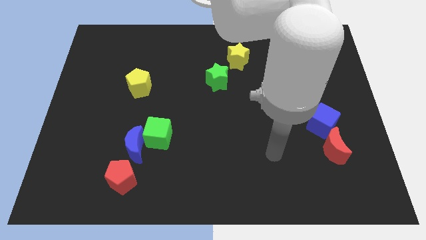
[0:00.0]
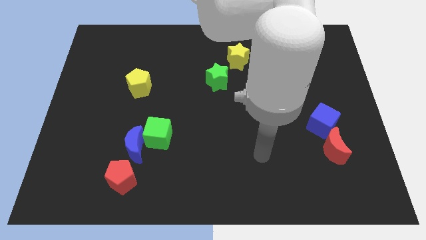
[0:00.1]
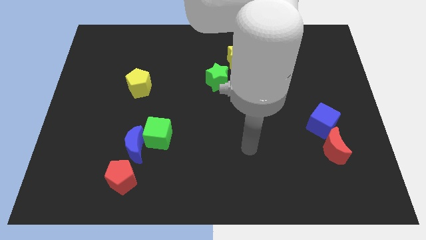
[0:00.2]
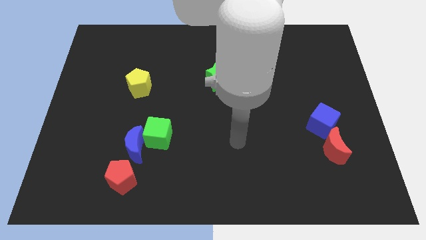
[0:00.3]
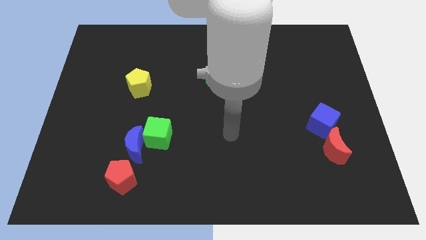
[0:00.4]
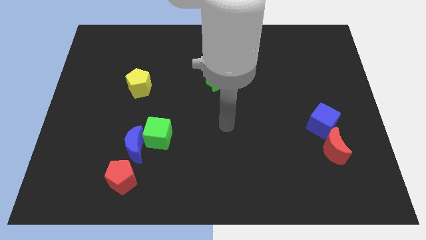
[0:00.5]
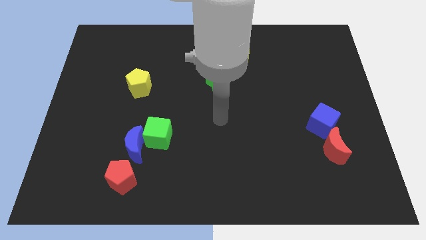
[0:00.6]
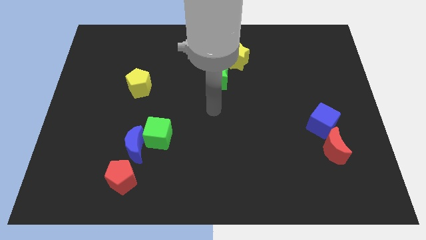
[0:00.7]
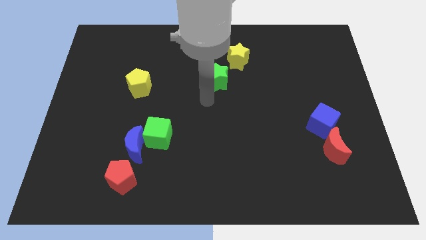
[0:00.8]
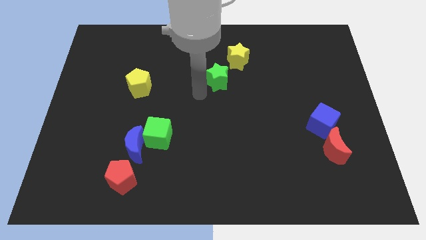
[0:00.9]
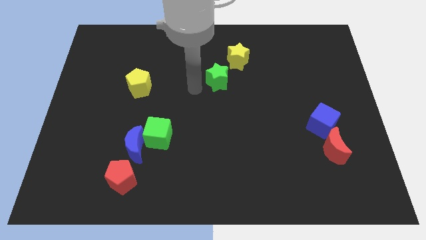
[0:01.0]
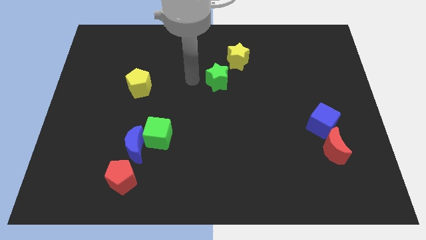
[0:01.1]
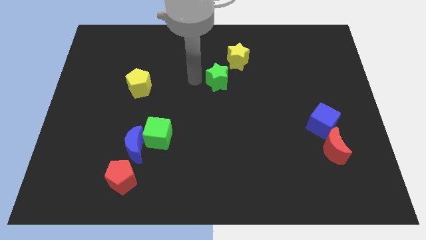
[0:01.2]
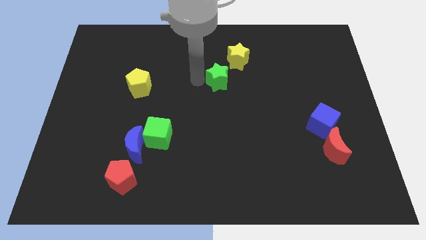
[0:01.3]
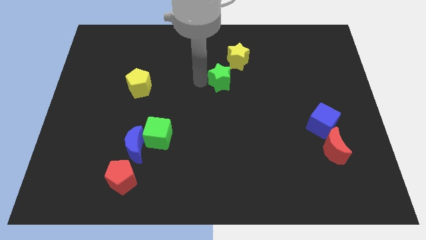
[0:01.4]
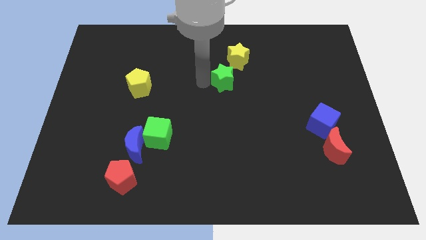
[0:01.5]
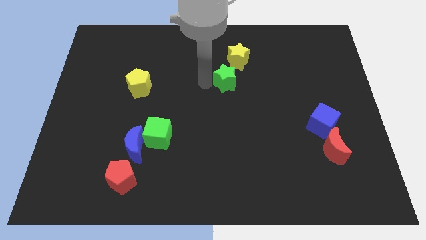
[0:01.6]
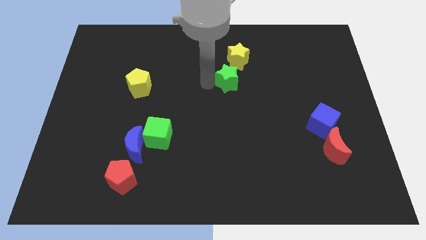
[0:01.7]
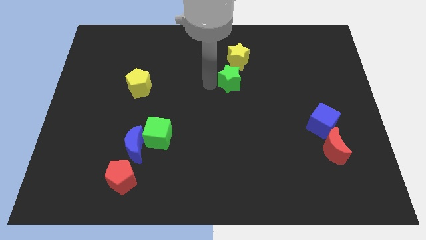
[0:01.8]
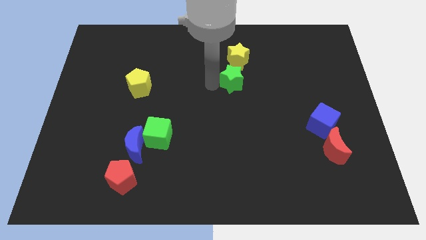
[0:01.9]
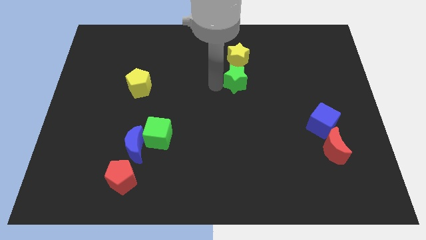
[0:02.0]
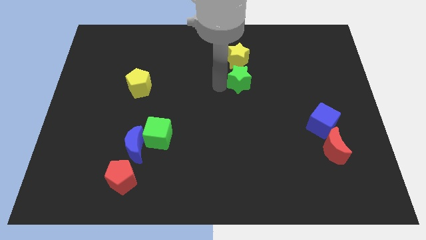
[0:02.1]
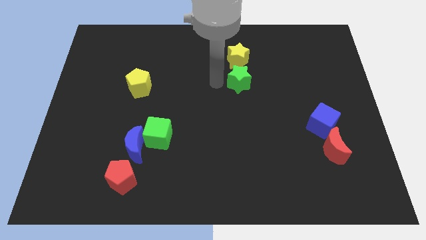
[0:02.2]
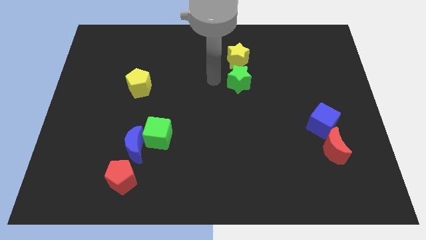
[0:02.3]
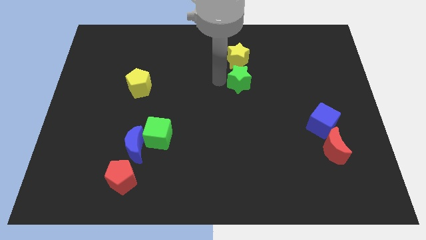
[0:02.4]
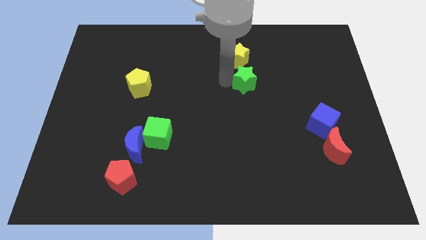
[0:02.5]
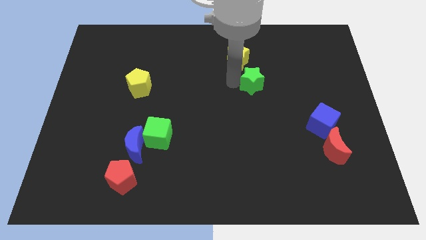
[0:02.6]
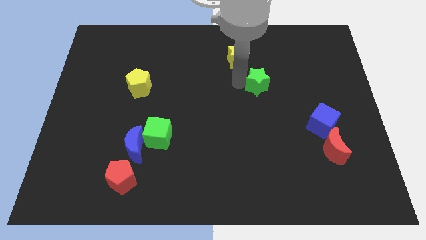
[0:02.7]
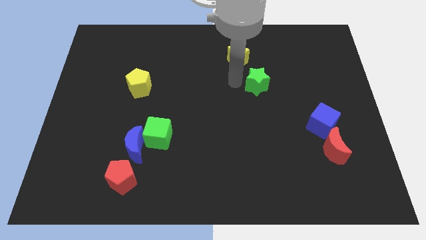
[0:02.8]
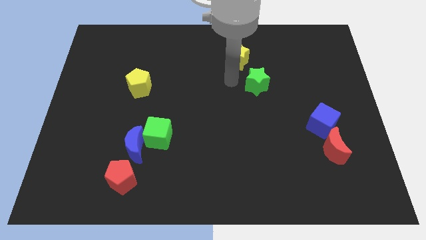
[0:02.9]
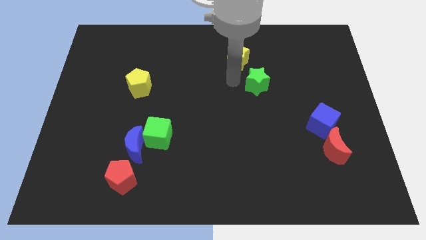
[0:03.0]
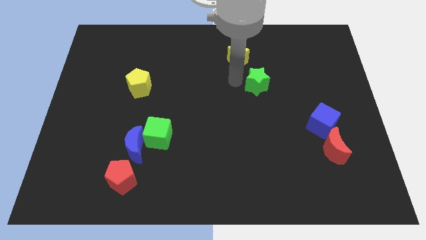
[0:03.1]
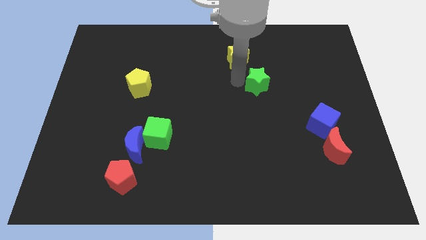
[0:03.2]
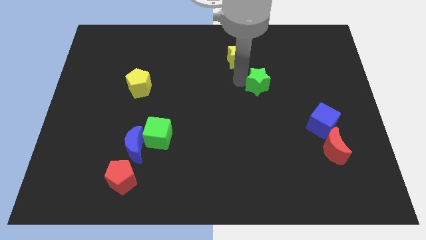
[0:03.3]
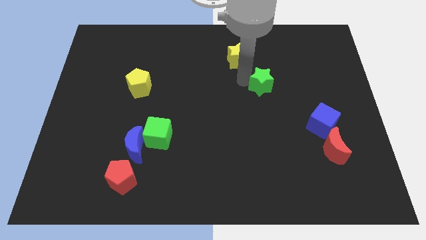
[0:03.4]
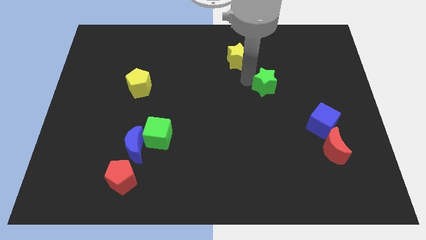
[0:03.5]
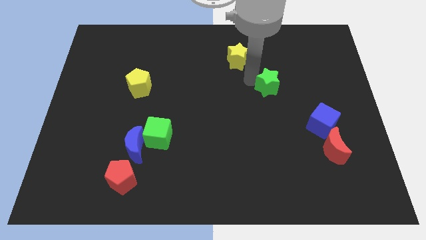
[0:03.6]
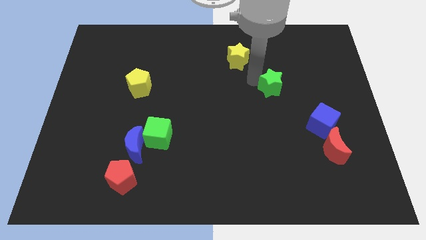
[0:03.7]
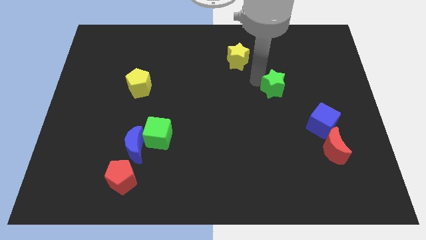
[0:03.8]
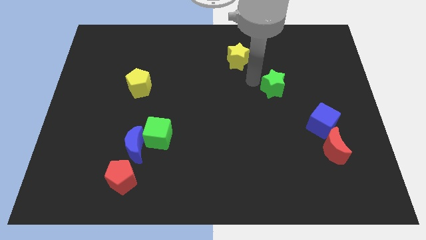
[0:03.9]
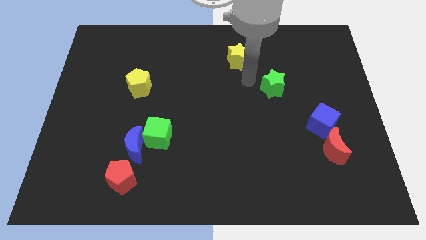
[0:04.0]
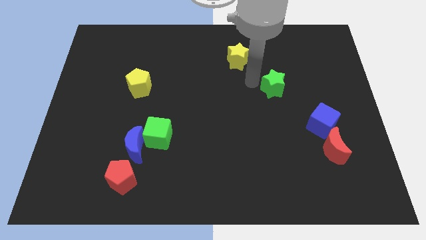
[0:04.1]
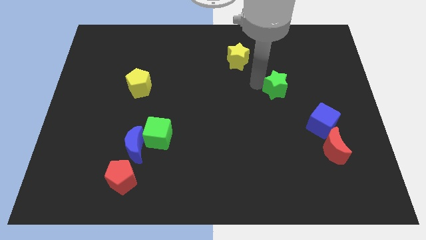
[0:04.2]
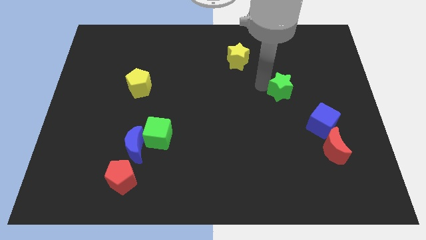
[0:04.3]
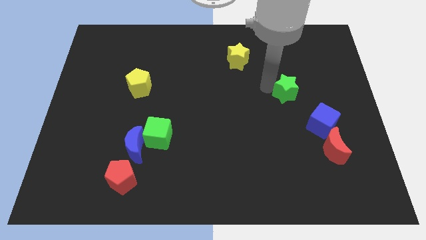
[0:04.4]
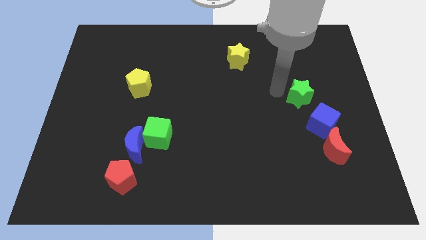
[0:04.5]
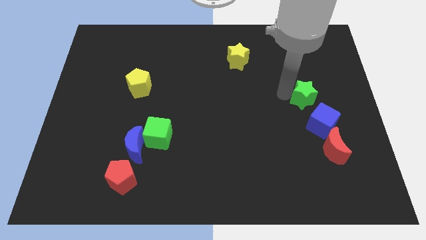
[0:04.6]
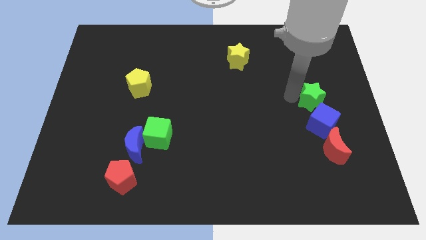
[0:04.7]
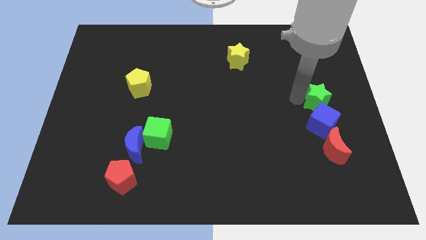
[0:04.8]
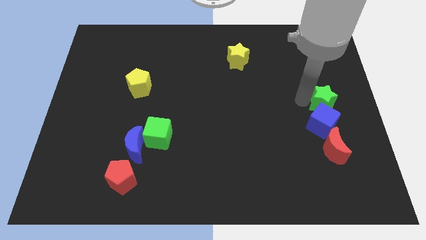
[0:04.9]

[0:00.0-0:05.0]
push the green star to the right side

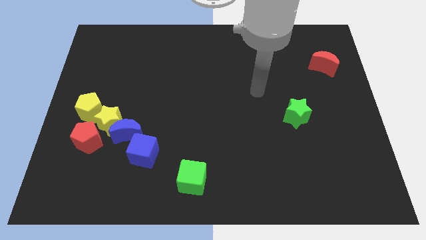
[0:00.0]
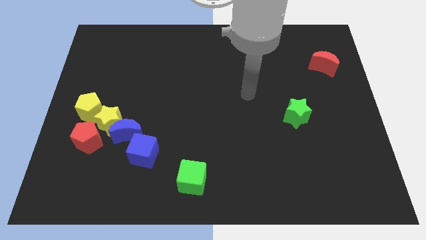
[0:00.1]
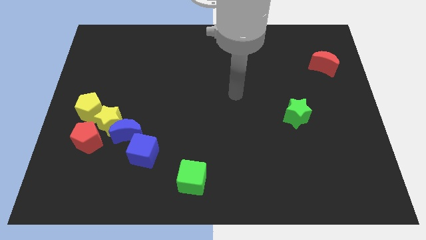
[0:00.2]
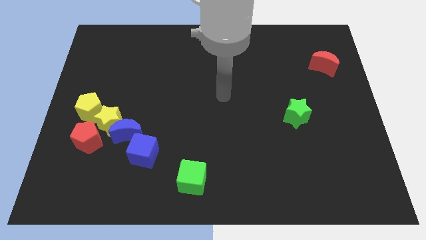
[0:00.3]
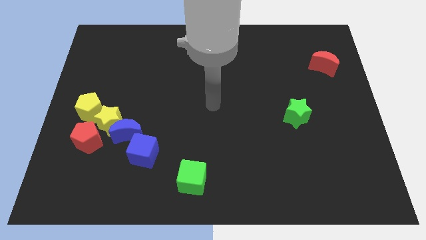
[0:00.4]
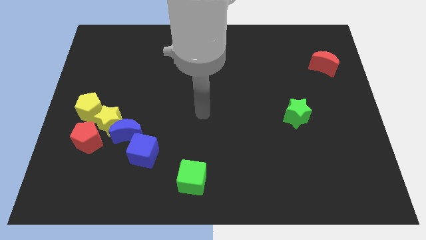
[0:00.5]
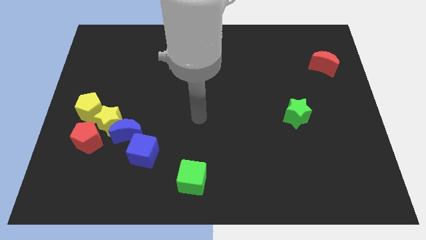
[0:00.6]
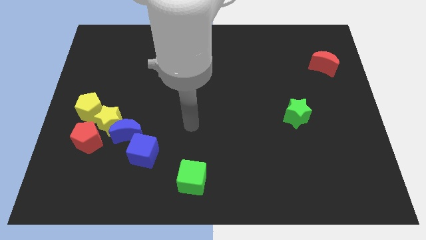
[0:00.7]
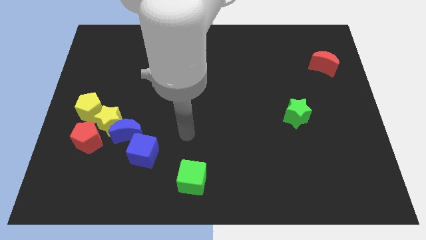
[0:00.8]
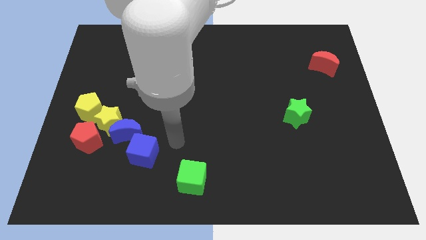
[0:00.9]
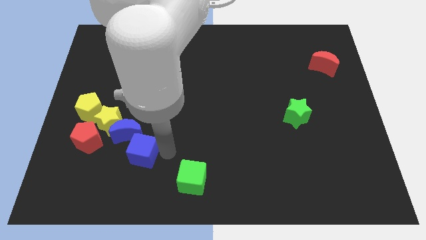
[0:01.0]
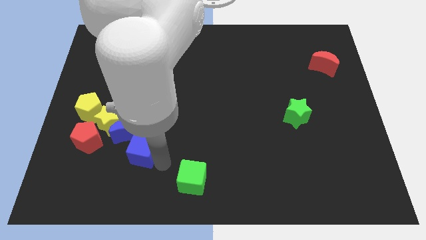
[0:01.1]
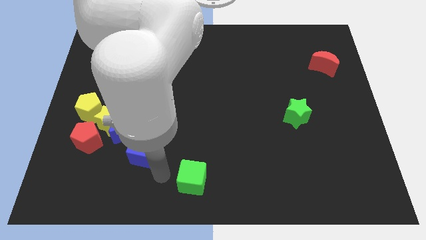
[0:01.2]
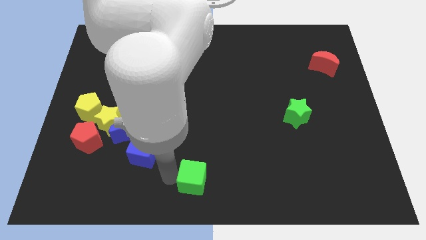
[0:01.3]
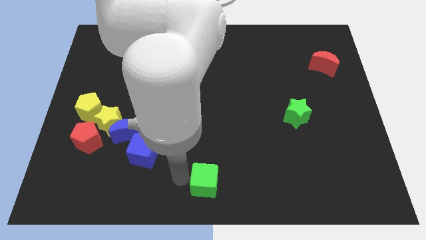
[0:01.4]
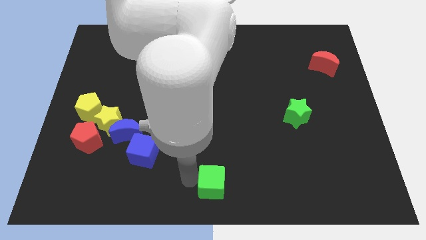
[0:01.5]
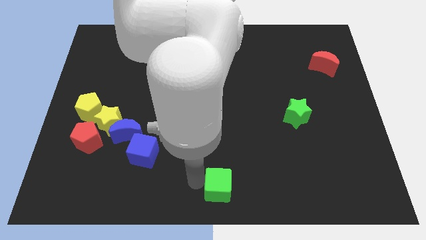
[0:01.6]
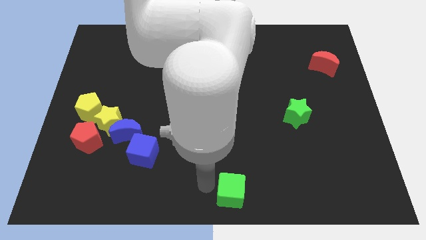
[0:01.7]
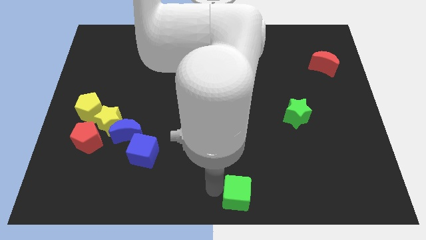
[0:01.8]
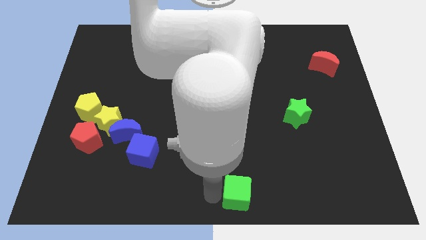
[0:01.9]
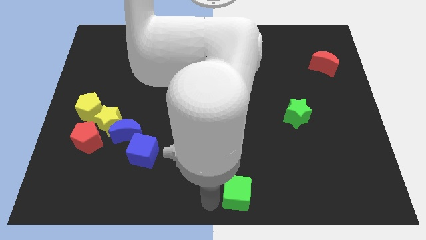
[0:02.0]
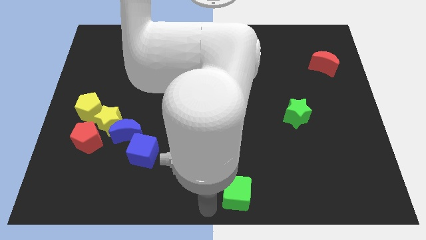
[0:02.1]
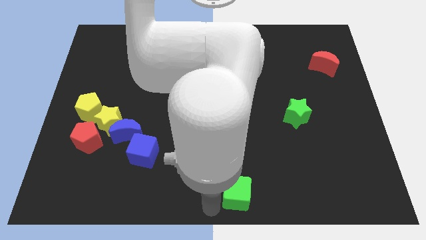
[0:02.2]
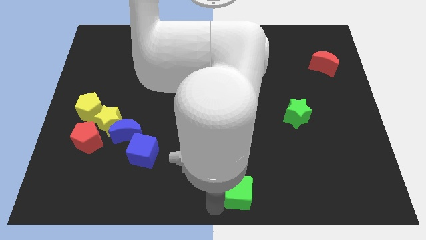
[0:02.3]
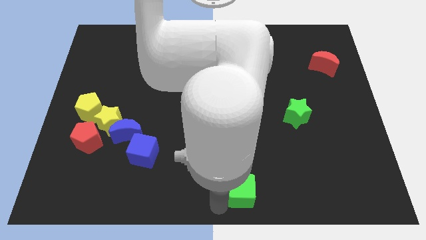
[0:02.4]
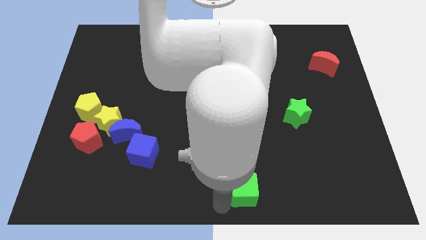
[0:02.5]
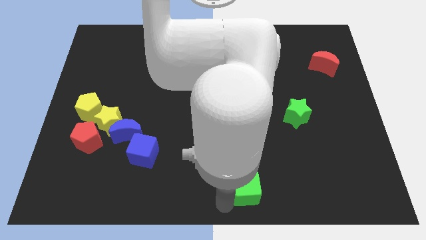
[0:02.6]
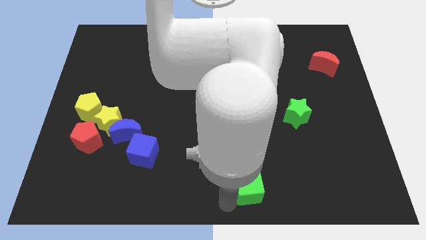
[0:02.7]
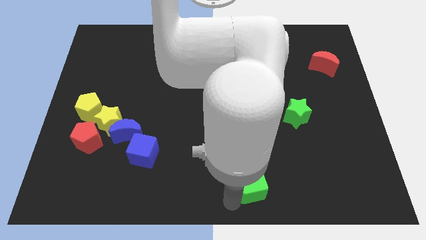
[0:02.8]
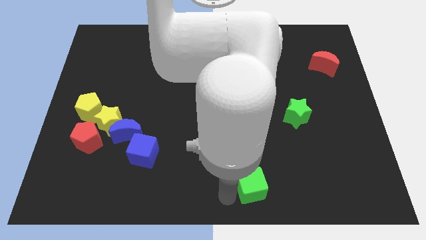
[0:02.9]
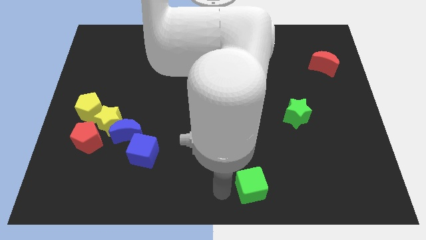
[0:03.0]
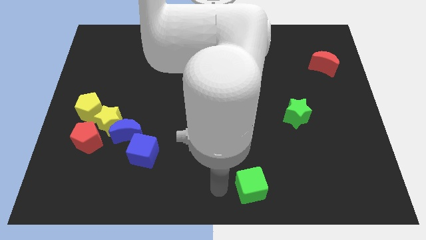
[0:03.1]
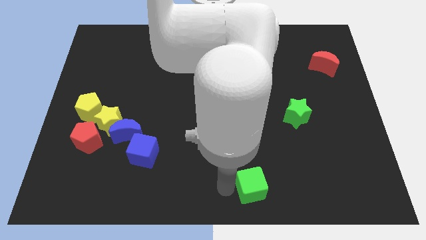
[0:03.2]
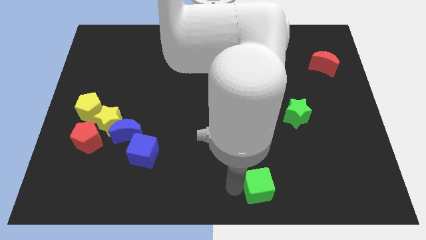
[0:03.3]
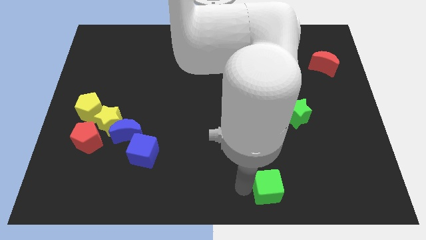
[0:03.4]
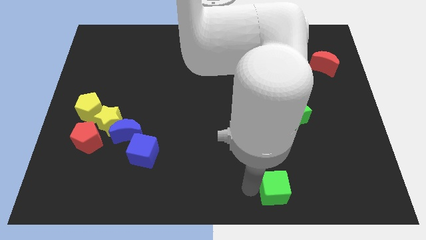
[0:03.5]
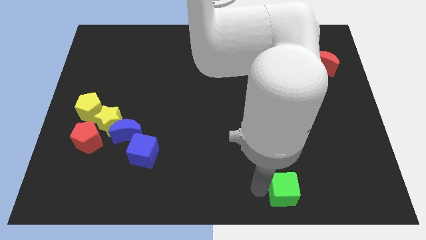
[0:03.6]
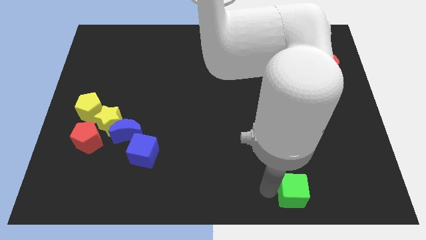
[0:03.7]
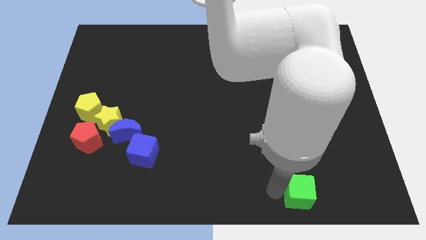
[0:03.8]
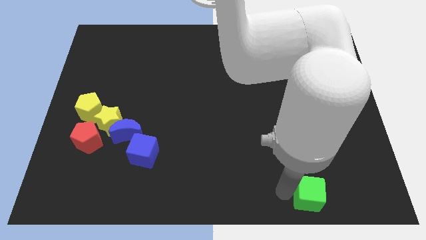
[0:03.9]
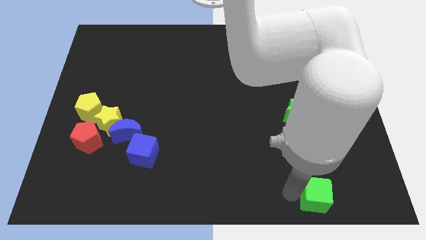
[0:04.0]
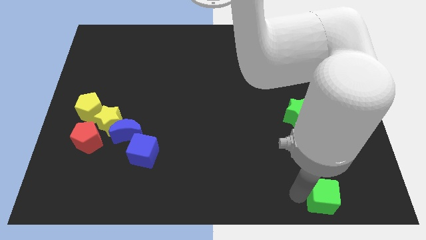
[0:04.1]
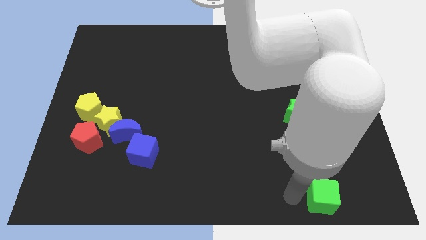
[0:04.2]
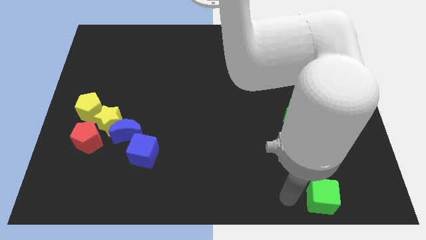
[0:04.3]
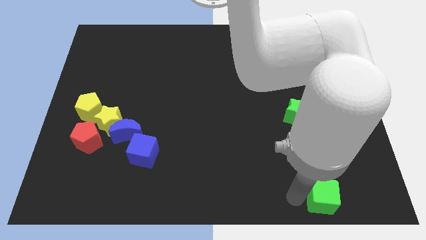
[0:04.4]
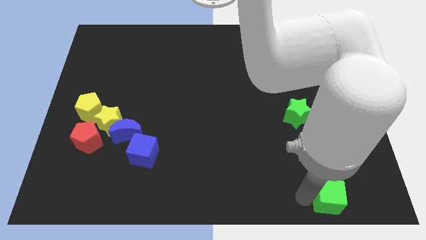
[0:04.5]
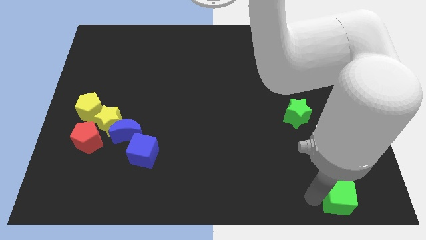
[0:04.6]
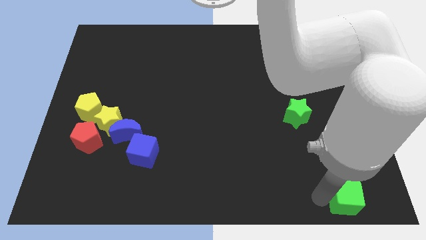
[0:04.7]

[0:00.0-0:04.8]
put the green cube to the bottom right
